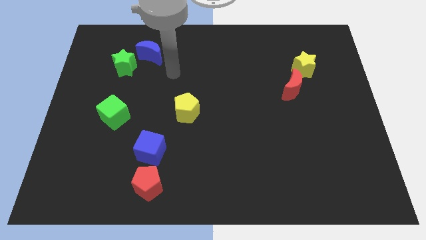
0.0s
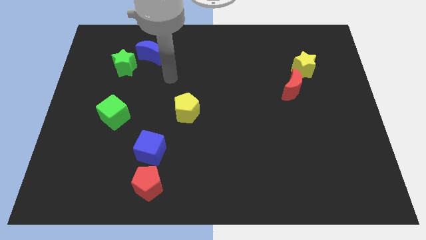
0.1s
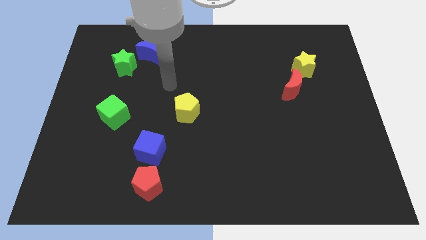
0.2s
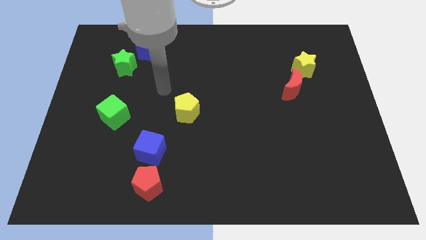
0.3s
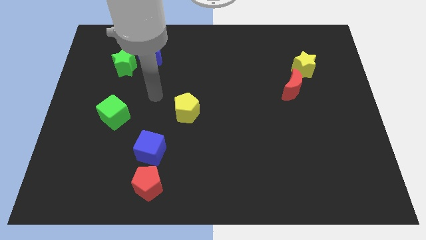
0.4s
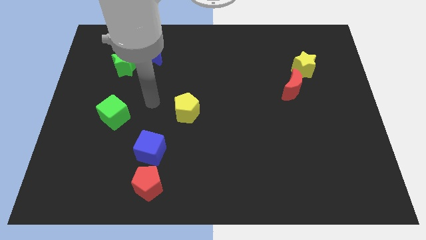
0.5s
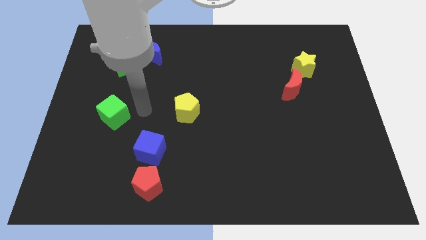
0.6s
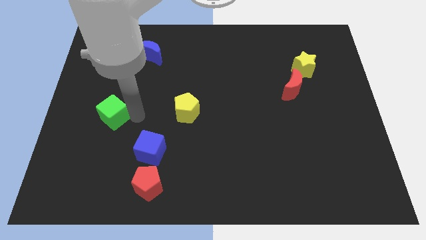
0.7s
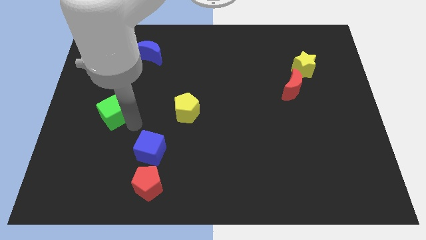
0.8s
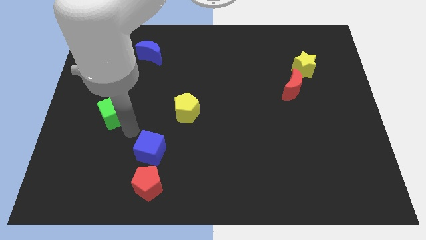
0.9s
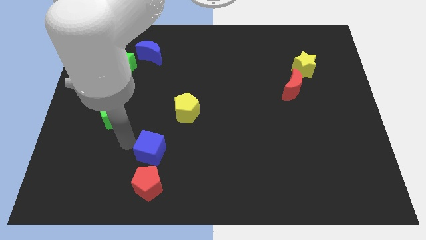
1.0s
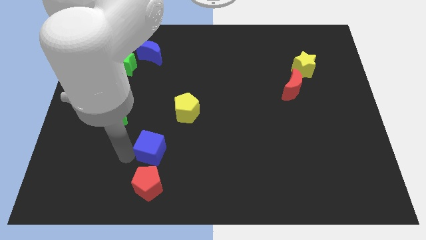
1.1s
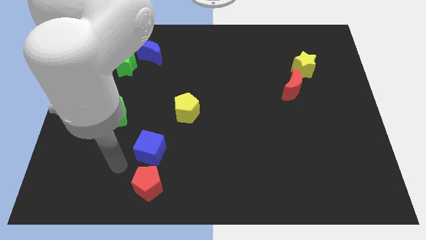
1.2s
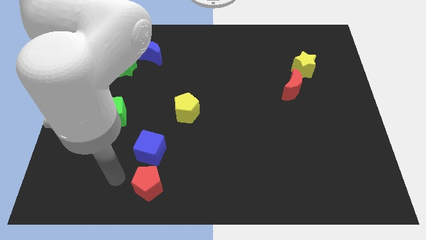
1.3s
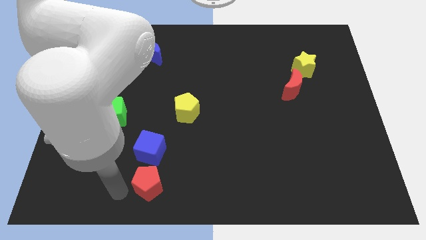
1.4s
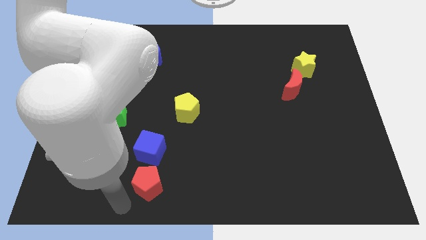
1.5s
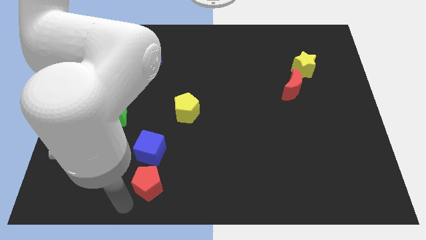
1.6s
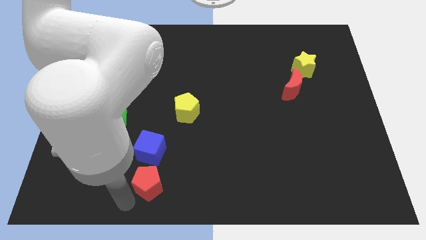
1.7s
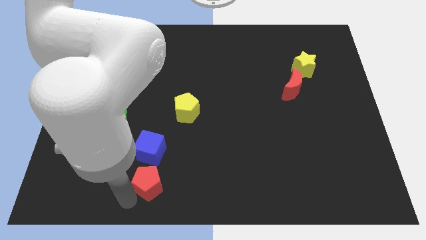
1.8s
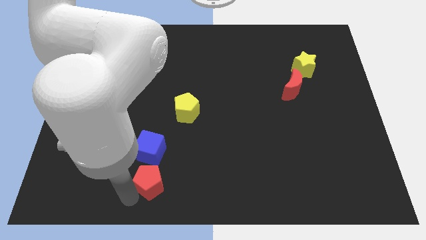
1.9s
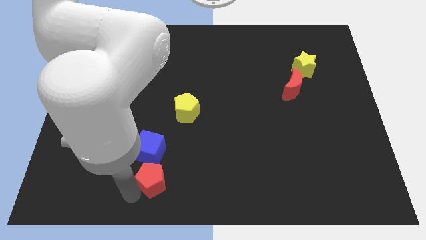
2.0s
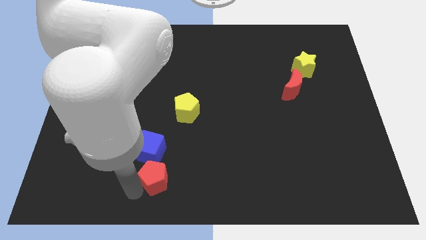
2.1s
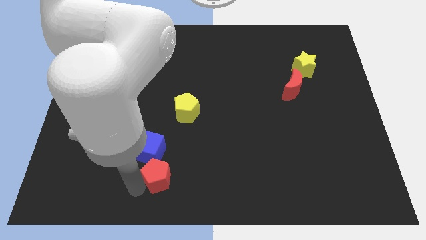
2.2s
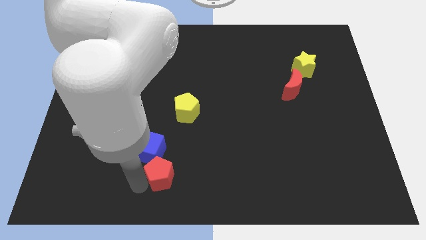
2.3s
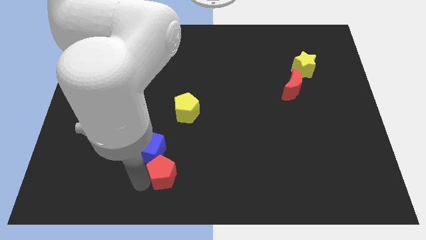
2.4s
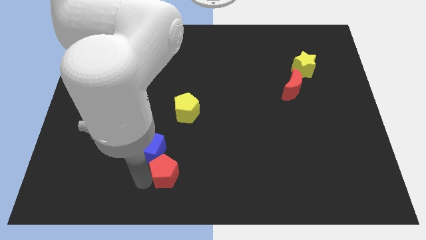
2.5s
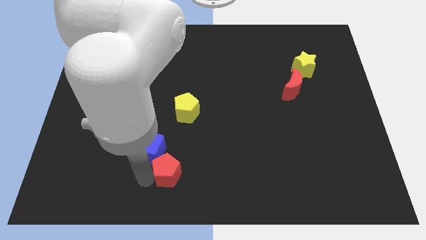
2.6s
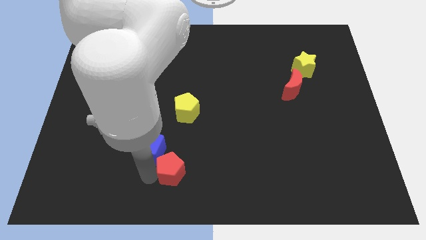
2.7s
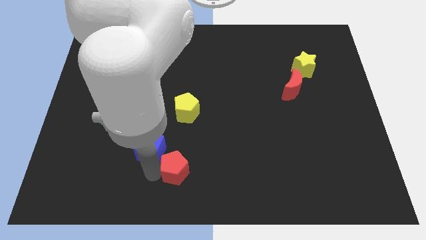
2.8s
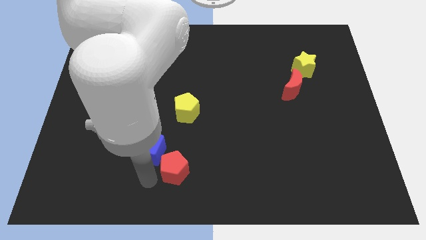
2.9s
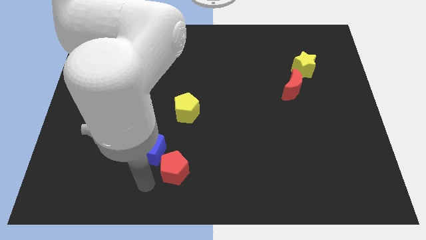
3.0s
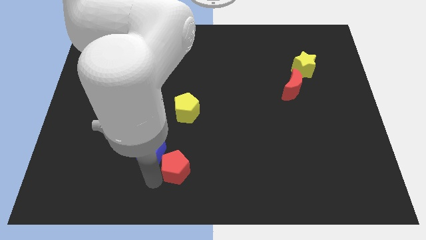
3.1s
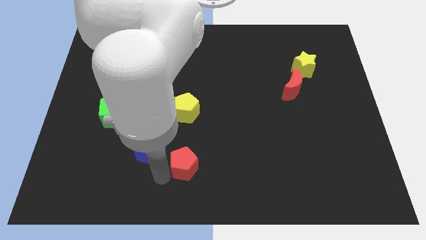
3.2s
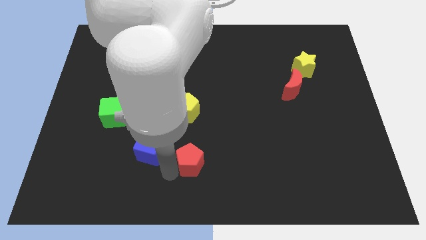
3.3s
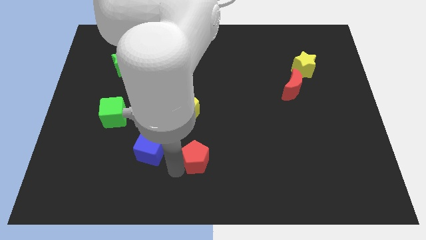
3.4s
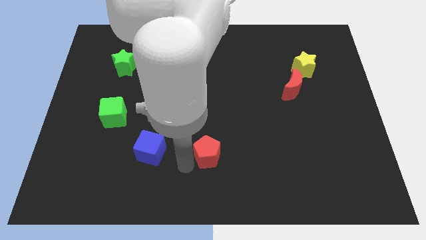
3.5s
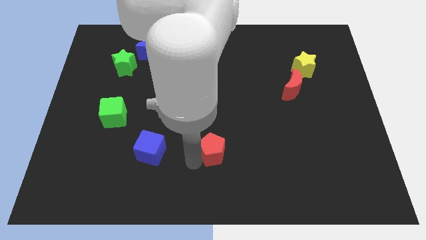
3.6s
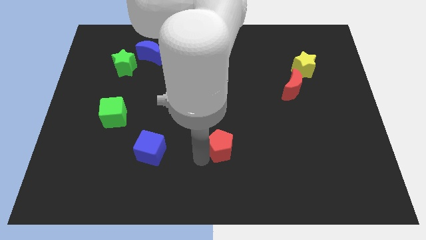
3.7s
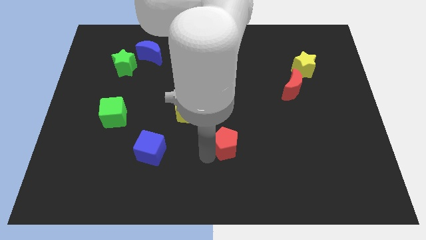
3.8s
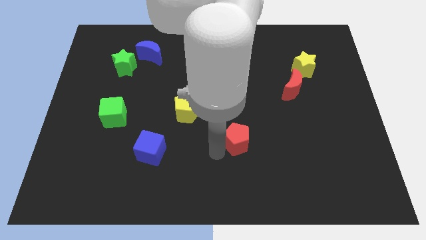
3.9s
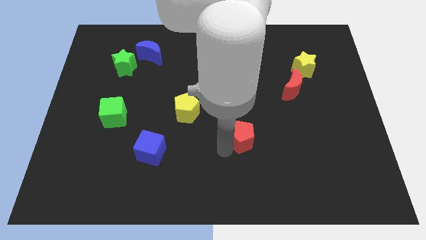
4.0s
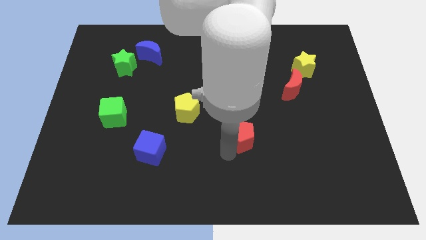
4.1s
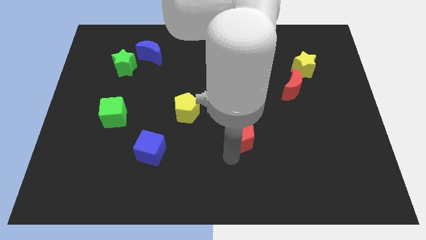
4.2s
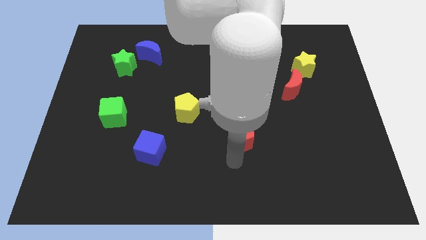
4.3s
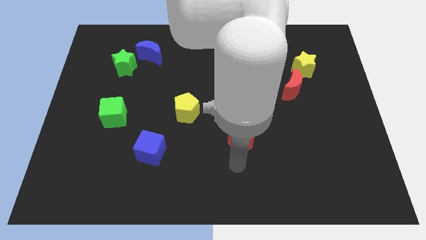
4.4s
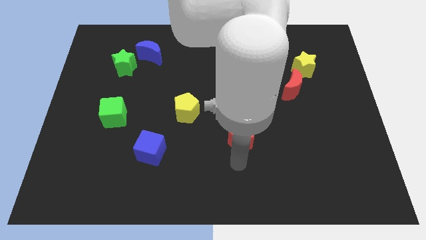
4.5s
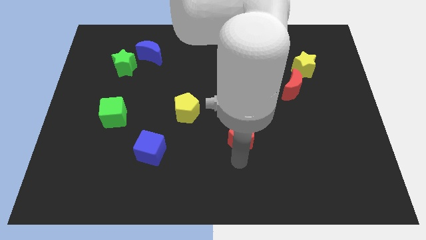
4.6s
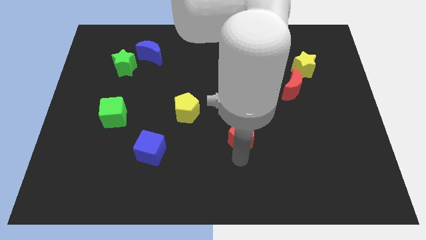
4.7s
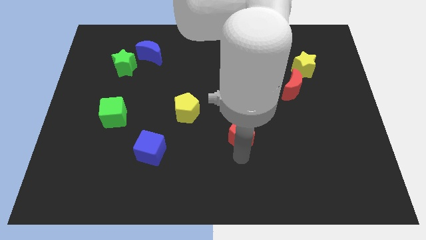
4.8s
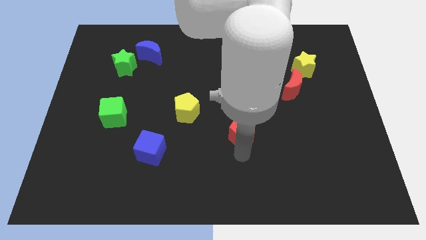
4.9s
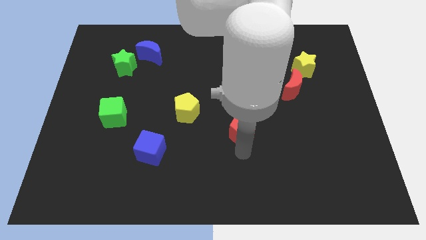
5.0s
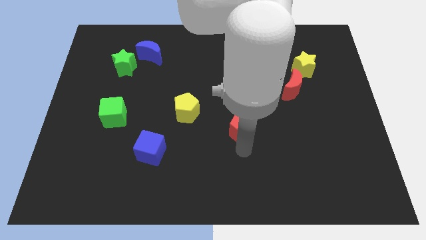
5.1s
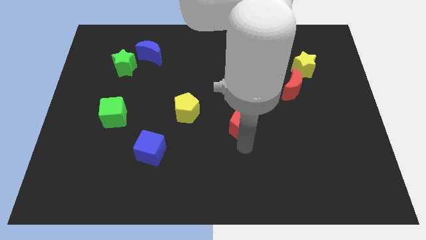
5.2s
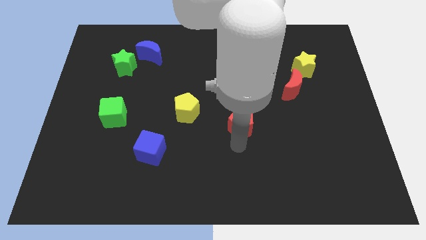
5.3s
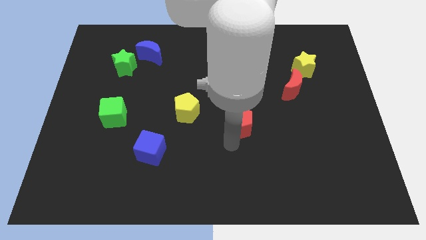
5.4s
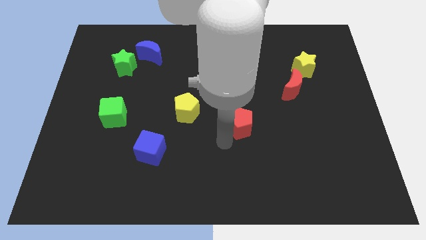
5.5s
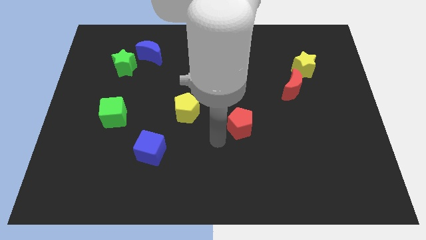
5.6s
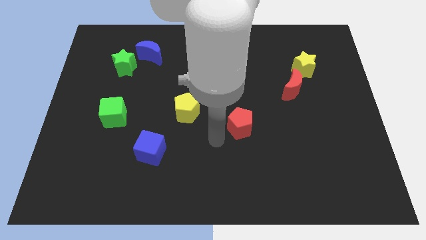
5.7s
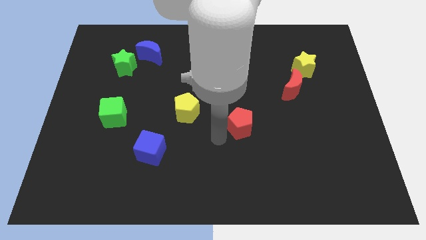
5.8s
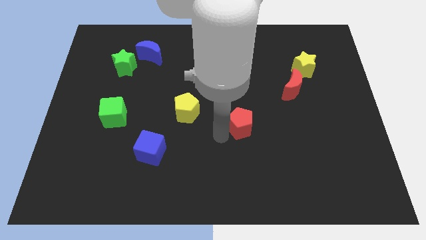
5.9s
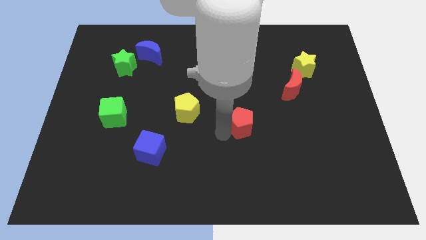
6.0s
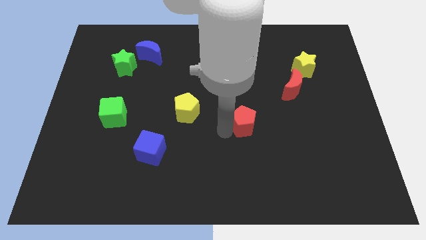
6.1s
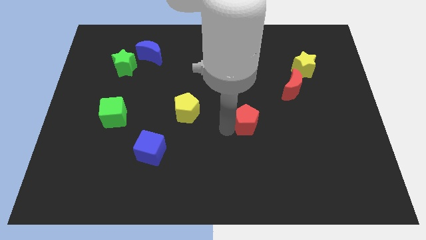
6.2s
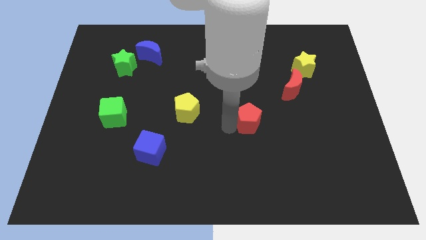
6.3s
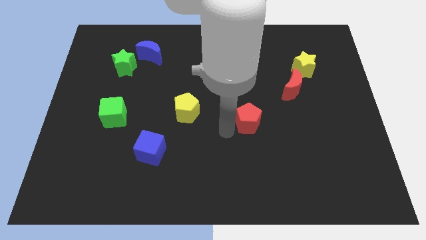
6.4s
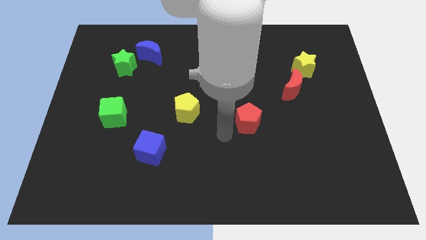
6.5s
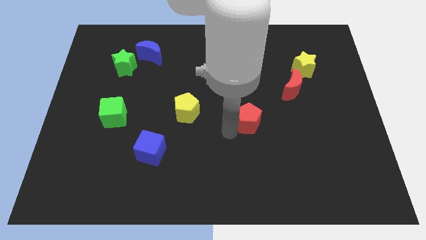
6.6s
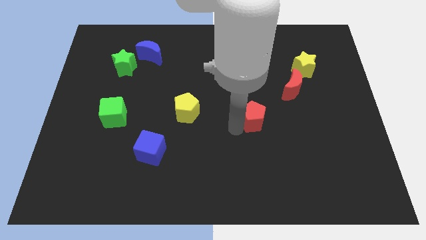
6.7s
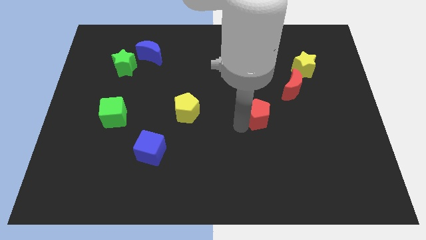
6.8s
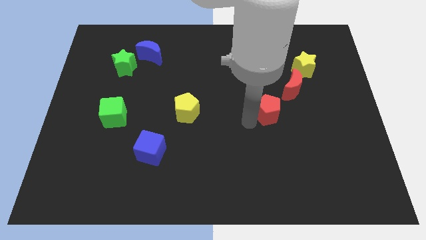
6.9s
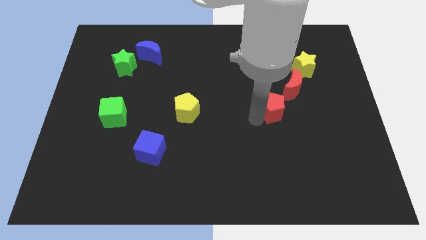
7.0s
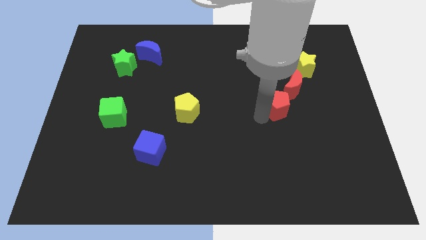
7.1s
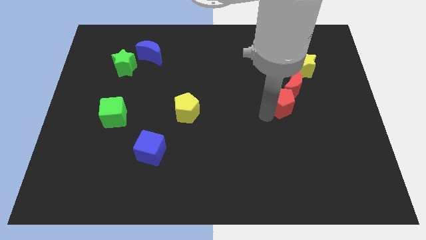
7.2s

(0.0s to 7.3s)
push the red pentagon close to the red moon
